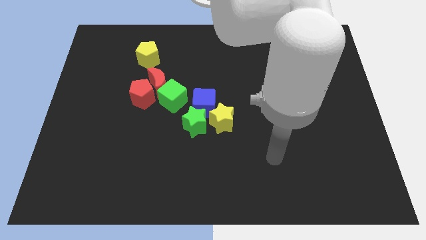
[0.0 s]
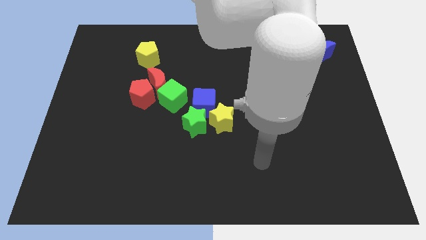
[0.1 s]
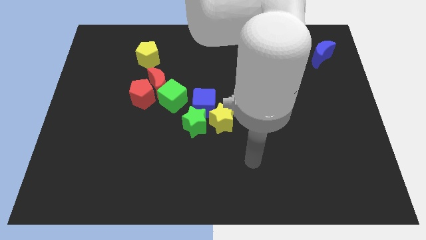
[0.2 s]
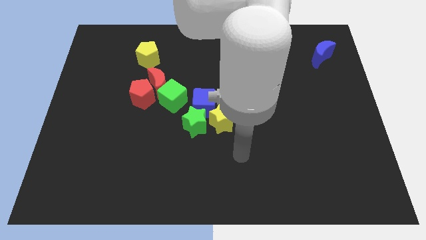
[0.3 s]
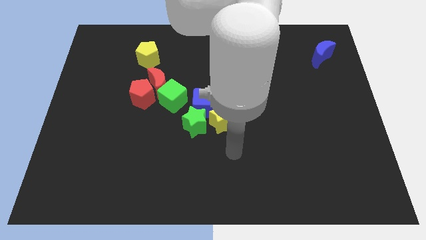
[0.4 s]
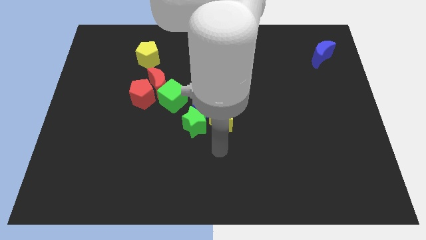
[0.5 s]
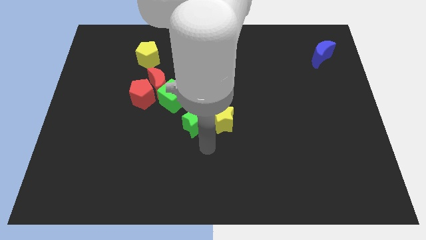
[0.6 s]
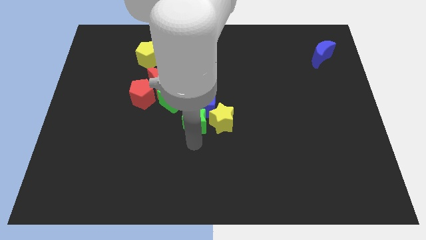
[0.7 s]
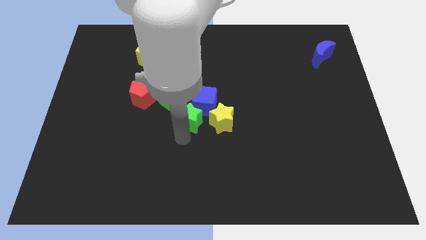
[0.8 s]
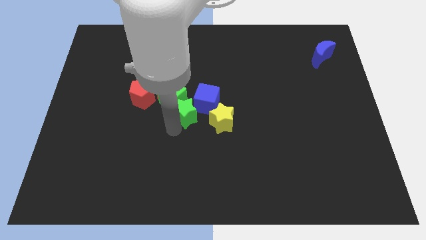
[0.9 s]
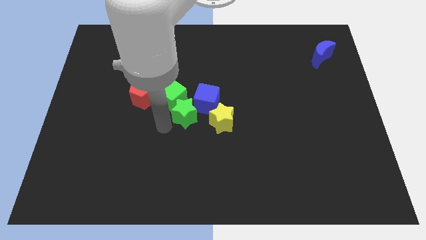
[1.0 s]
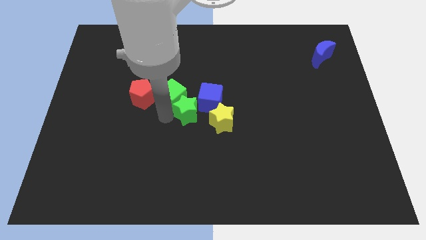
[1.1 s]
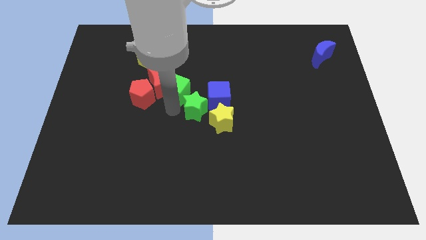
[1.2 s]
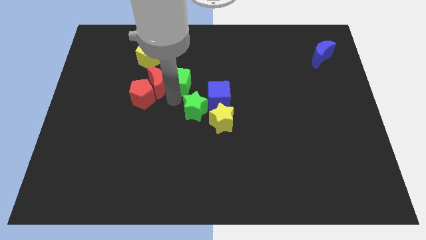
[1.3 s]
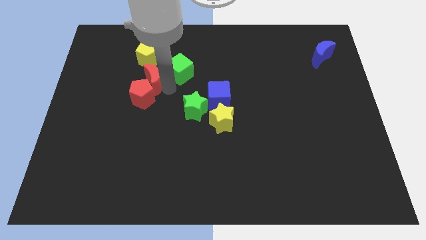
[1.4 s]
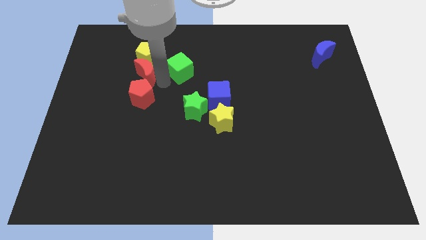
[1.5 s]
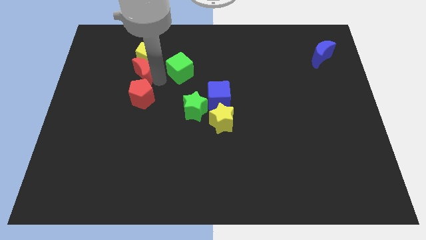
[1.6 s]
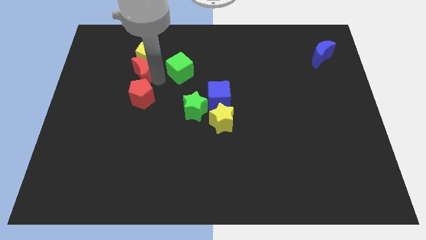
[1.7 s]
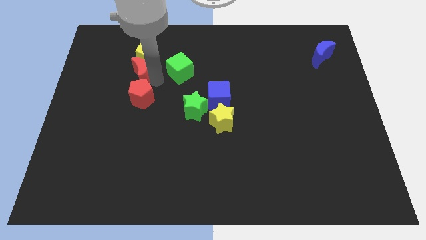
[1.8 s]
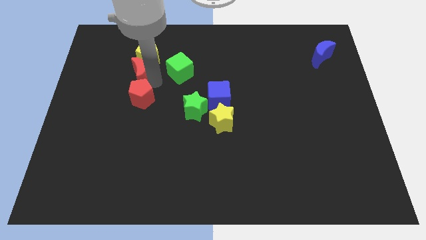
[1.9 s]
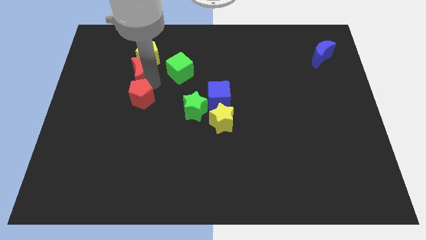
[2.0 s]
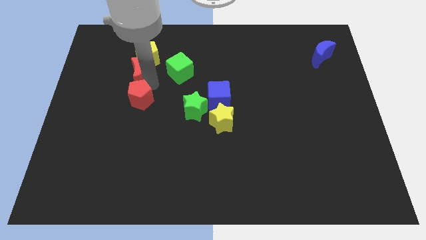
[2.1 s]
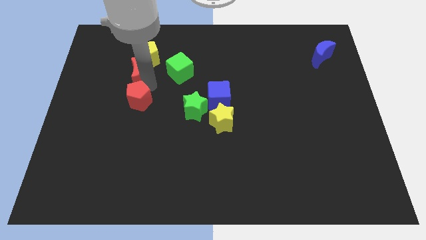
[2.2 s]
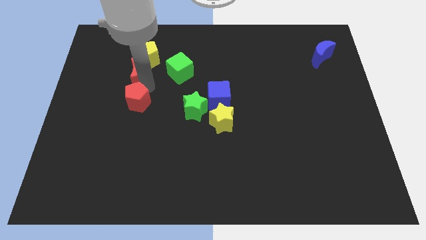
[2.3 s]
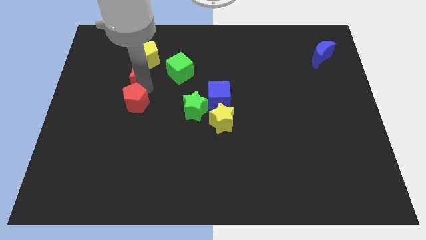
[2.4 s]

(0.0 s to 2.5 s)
pull the red pentagon apart from the red moon and green cube

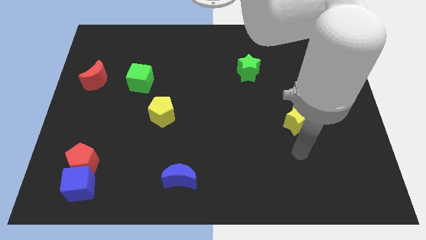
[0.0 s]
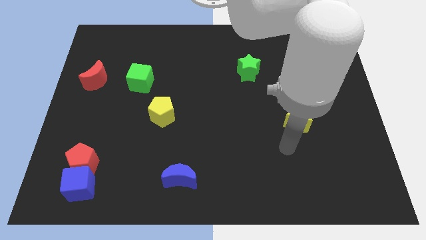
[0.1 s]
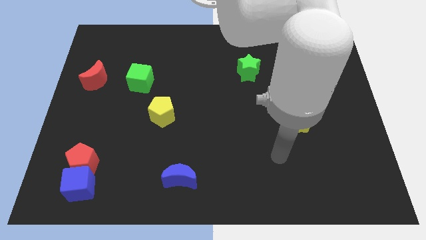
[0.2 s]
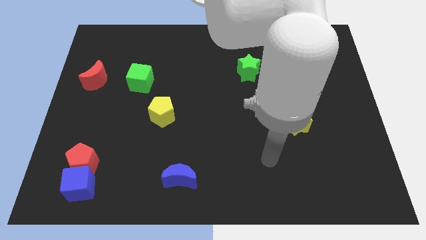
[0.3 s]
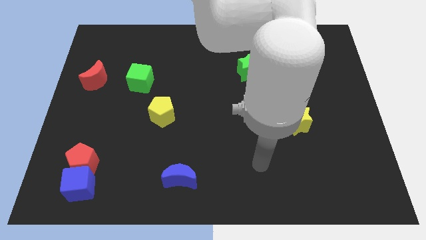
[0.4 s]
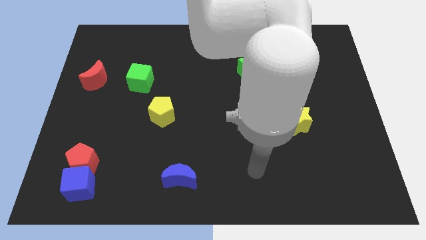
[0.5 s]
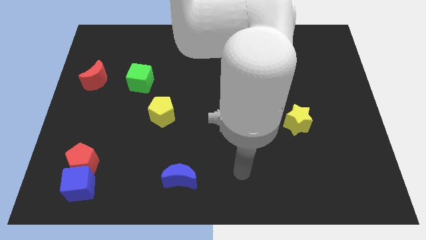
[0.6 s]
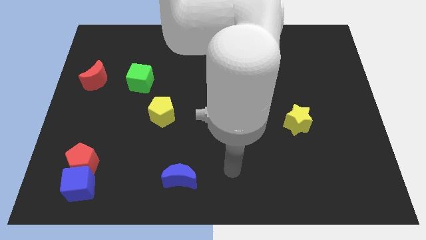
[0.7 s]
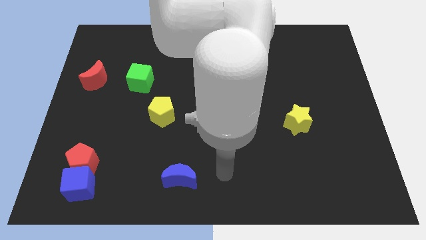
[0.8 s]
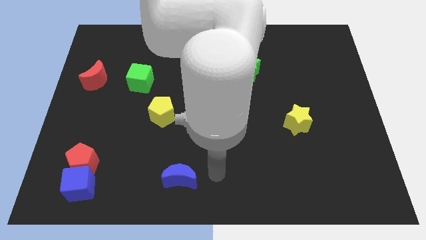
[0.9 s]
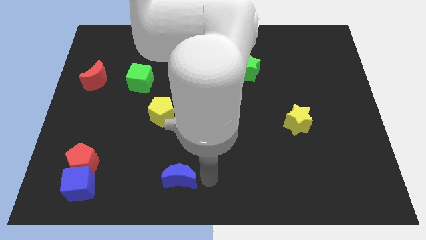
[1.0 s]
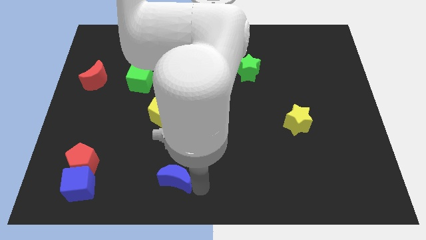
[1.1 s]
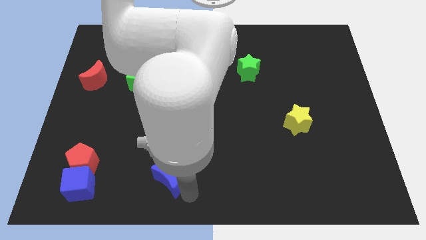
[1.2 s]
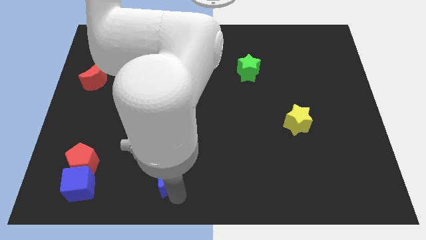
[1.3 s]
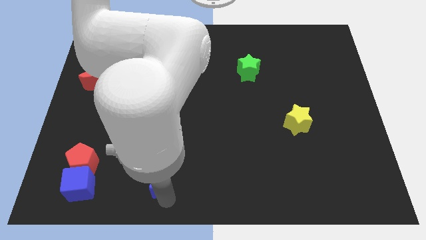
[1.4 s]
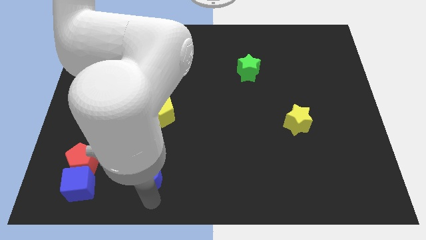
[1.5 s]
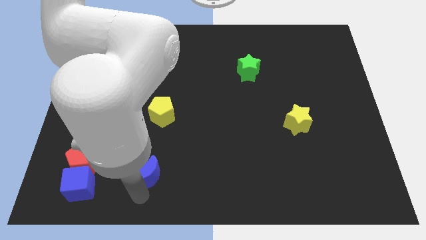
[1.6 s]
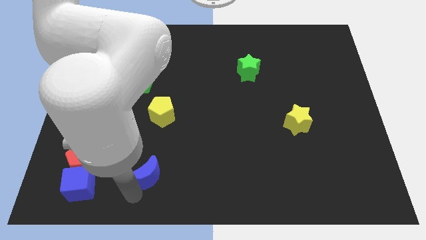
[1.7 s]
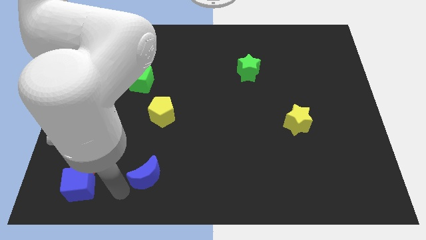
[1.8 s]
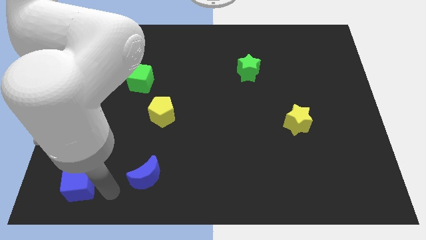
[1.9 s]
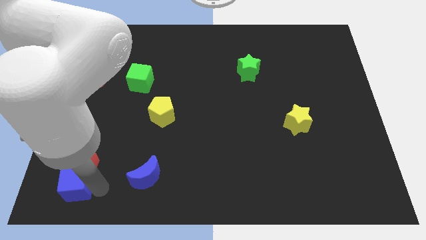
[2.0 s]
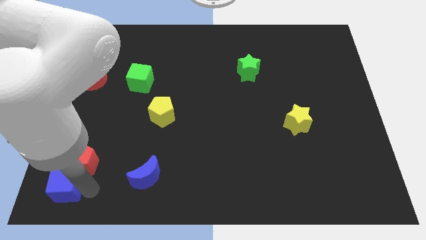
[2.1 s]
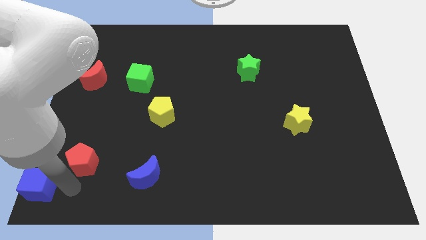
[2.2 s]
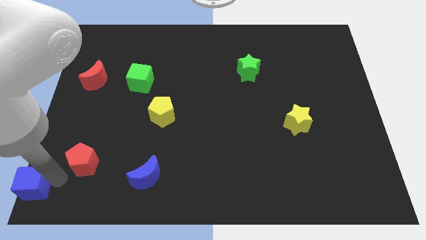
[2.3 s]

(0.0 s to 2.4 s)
pull the red pentagon apart from the blue cube

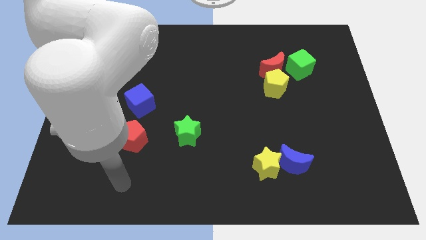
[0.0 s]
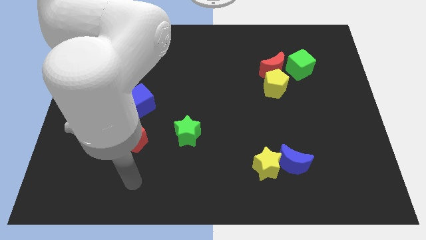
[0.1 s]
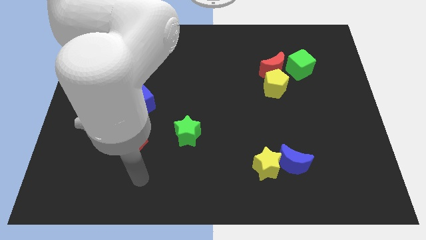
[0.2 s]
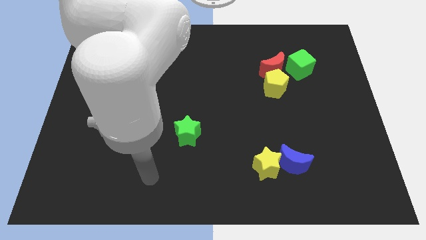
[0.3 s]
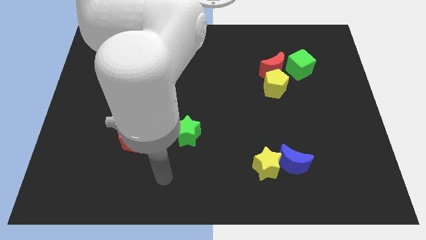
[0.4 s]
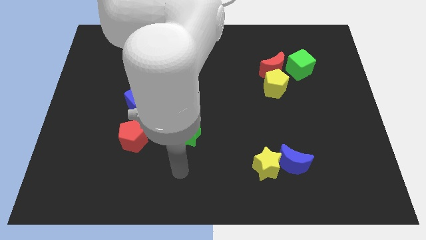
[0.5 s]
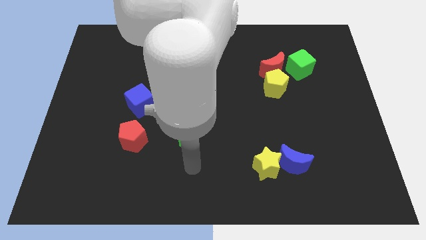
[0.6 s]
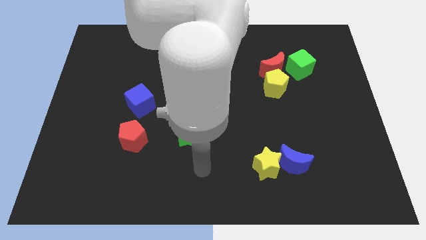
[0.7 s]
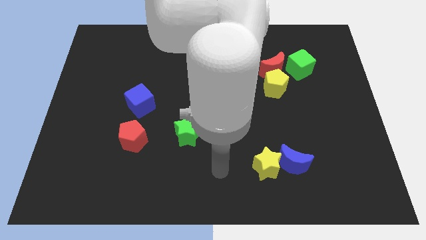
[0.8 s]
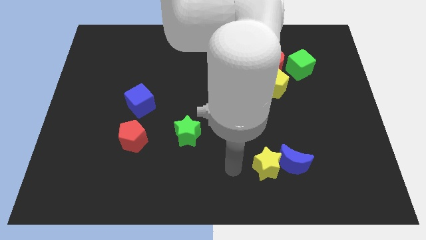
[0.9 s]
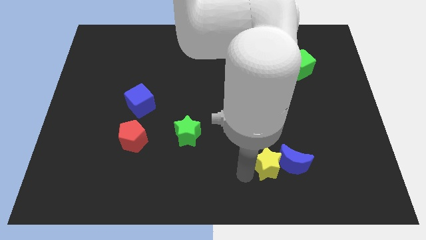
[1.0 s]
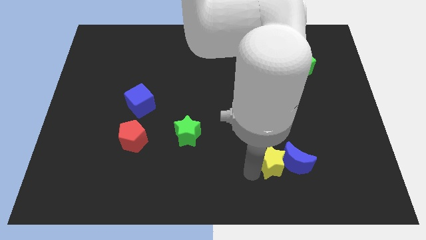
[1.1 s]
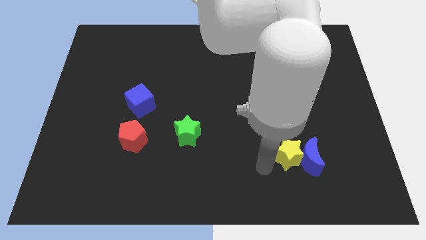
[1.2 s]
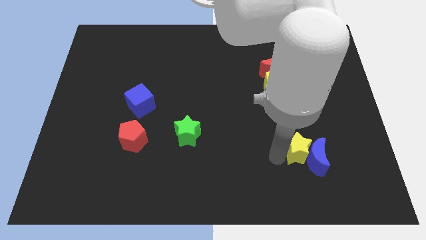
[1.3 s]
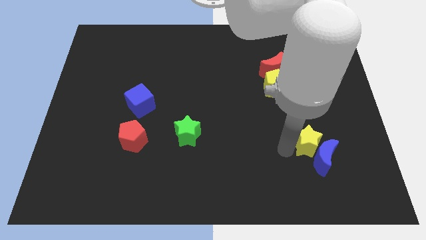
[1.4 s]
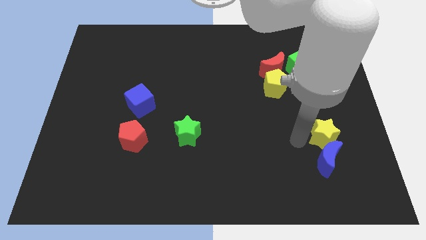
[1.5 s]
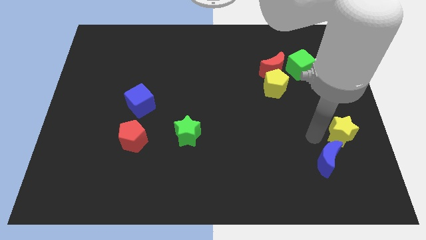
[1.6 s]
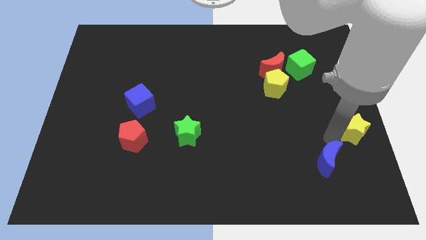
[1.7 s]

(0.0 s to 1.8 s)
separate the blue moon from the yellow star

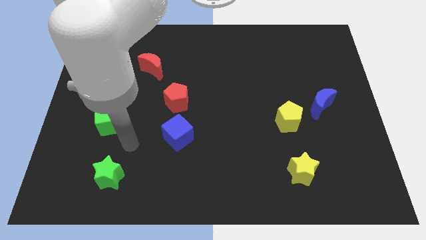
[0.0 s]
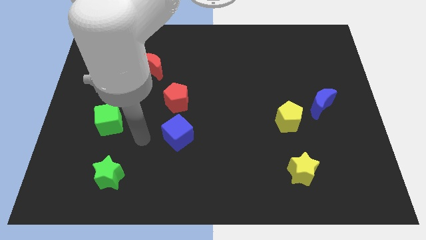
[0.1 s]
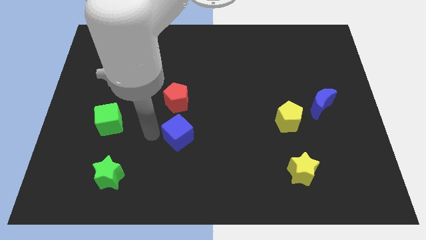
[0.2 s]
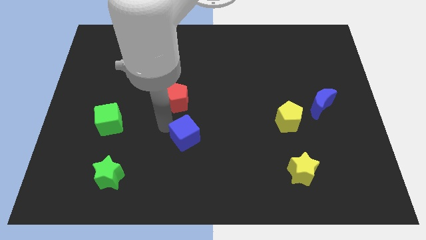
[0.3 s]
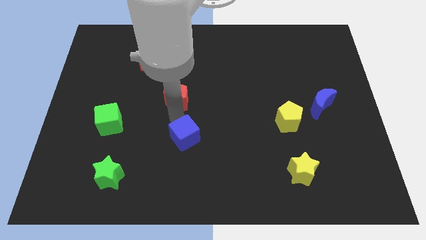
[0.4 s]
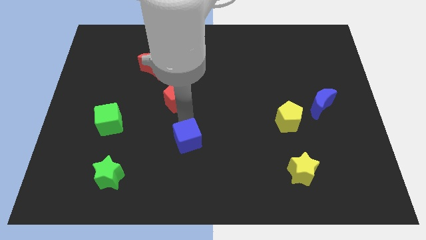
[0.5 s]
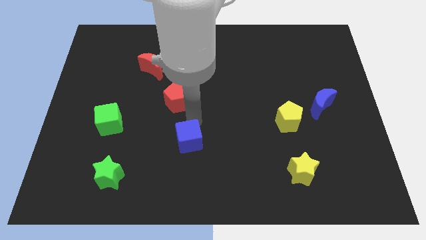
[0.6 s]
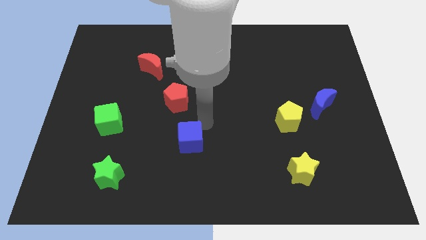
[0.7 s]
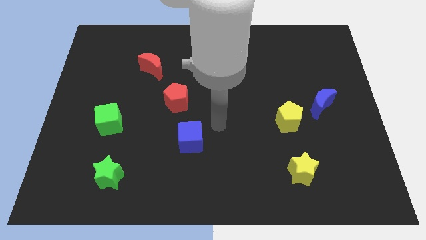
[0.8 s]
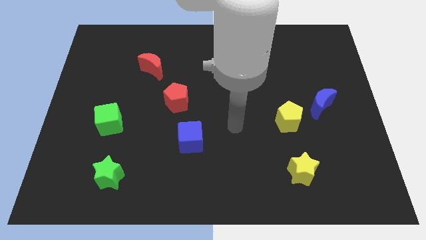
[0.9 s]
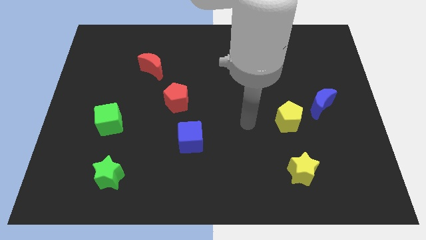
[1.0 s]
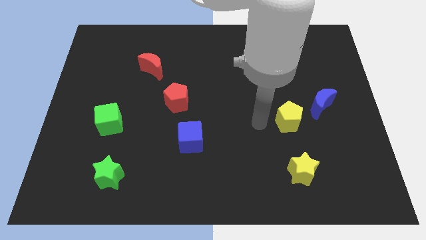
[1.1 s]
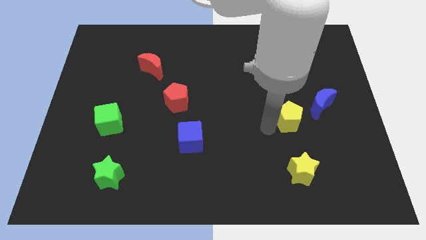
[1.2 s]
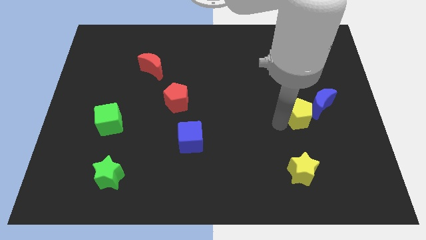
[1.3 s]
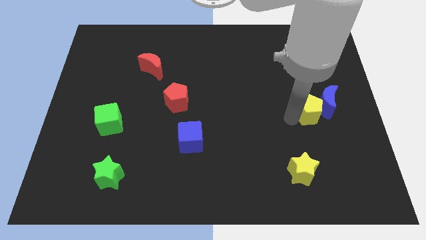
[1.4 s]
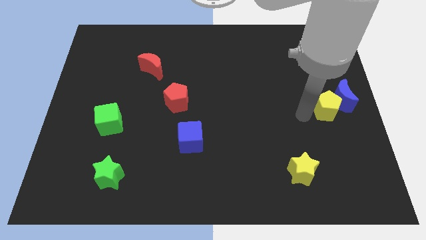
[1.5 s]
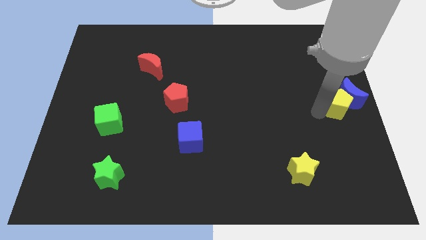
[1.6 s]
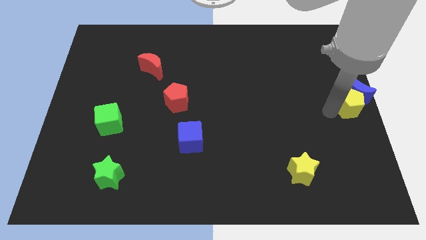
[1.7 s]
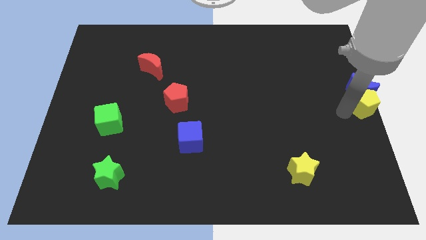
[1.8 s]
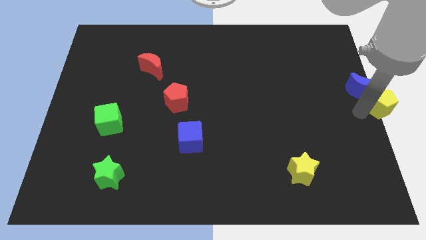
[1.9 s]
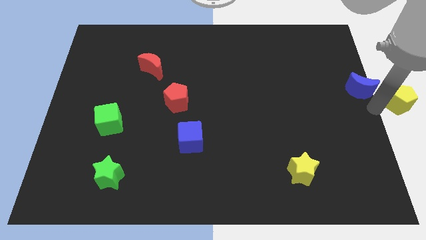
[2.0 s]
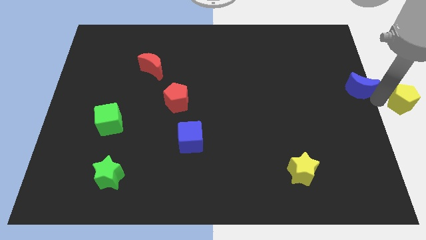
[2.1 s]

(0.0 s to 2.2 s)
pull the blue moon apart from the yellow pentagon

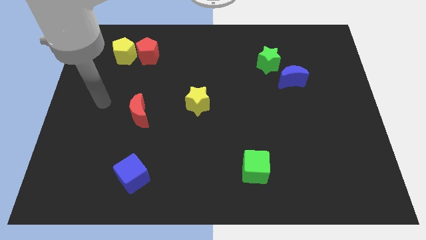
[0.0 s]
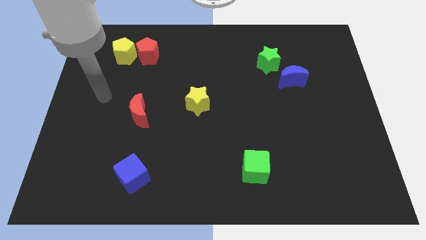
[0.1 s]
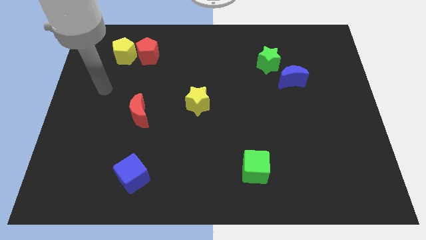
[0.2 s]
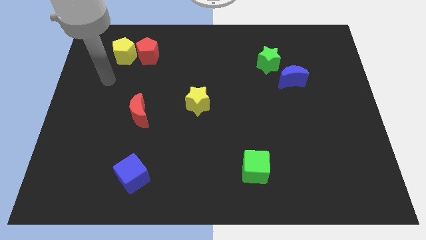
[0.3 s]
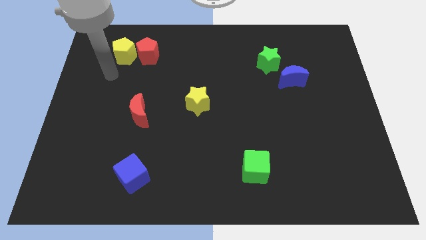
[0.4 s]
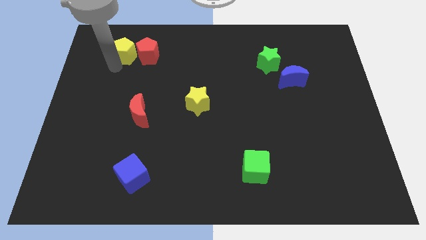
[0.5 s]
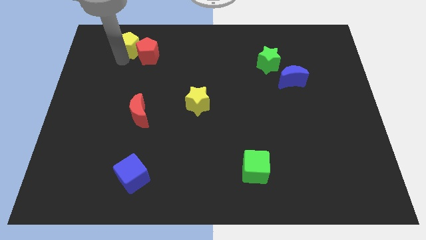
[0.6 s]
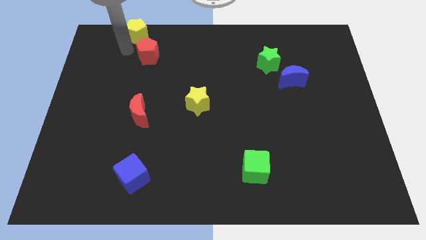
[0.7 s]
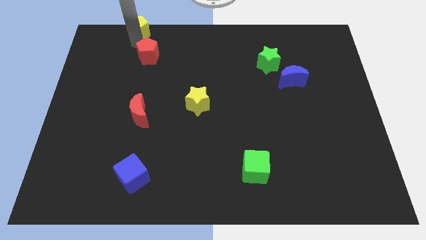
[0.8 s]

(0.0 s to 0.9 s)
pull the red pentagon apart from the yellow pentagon
